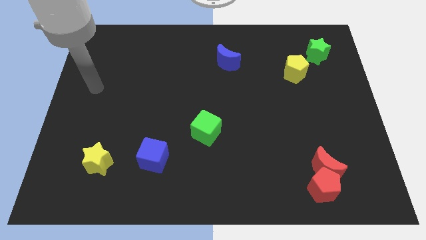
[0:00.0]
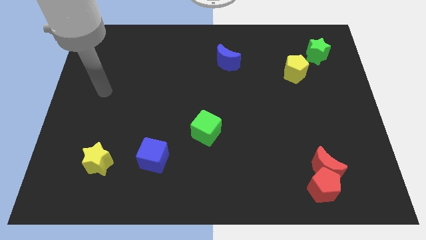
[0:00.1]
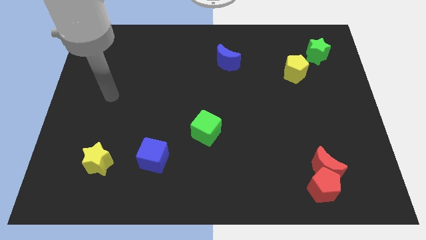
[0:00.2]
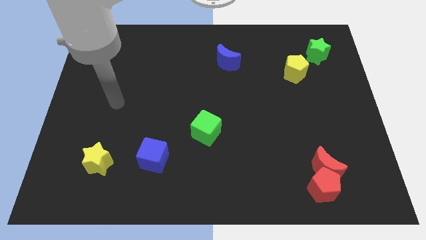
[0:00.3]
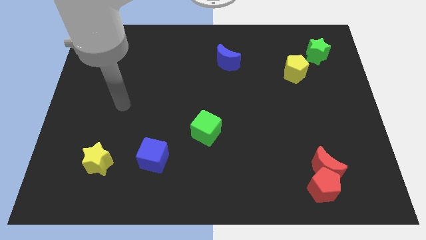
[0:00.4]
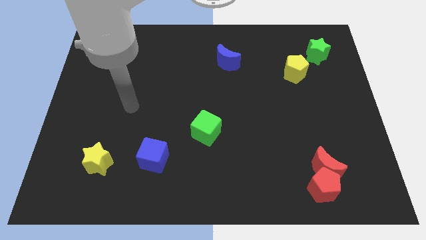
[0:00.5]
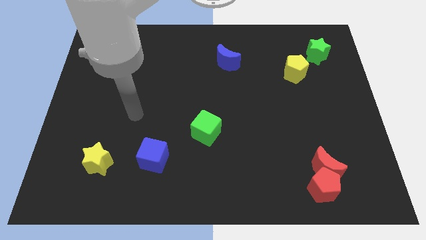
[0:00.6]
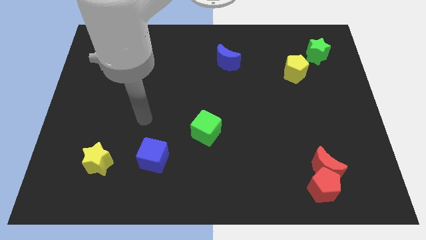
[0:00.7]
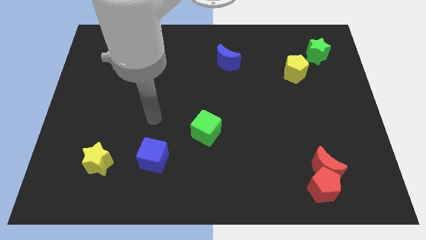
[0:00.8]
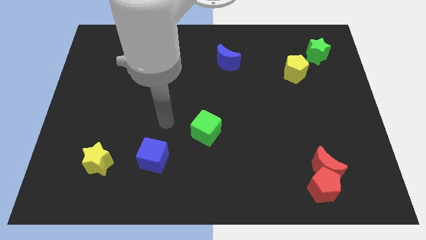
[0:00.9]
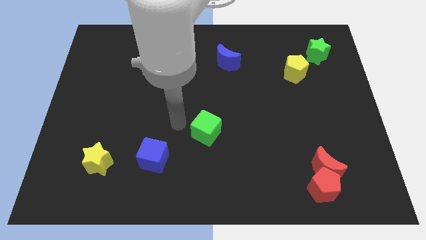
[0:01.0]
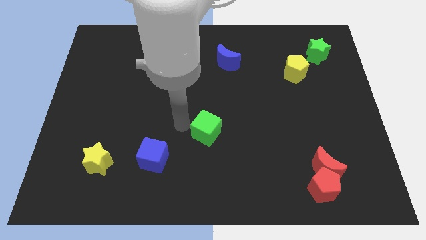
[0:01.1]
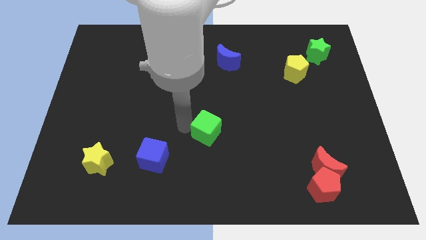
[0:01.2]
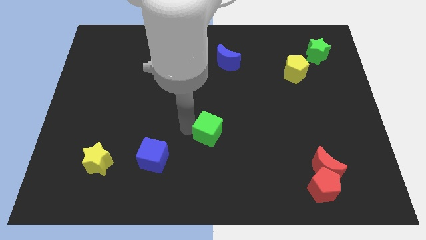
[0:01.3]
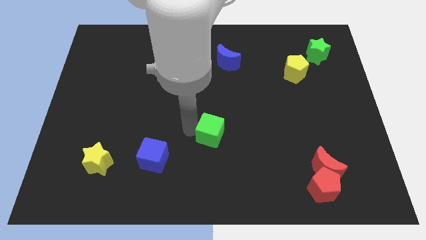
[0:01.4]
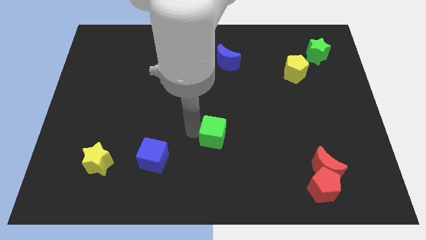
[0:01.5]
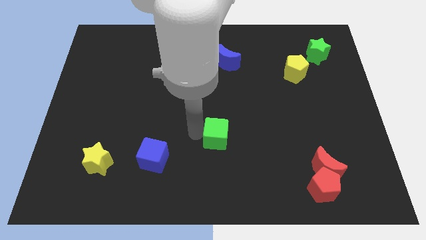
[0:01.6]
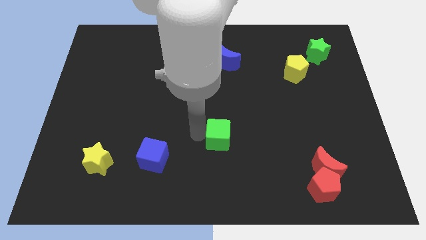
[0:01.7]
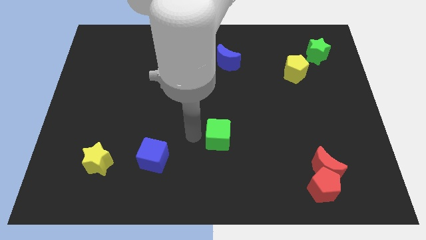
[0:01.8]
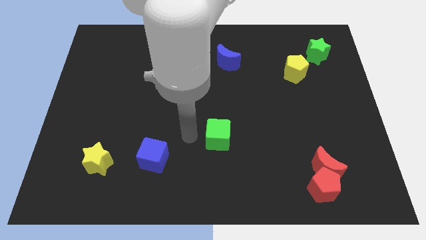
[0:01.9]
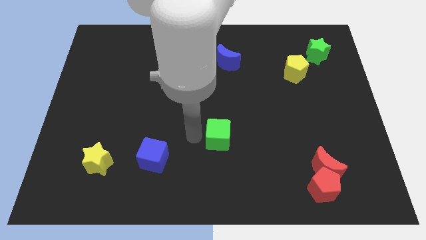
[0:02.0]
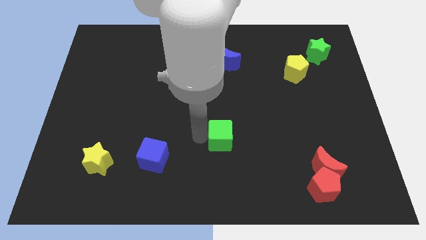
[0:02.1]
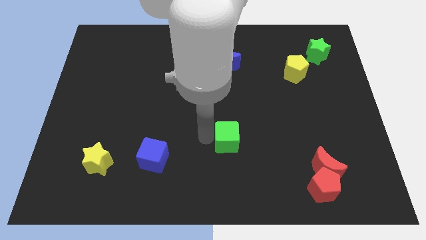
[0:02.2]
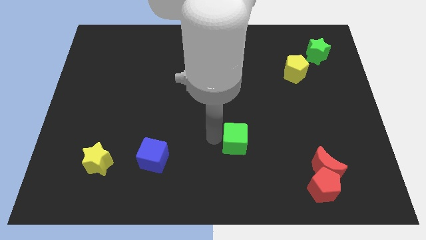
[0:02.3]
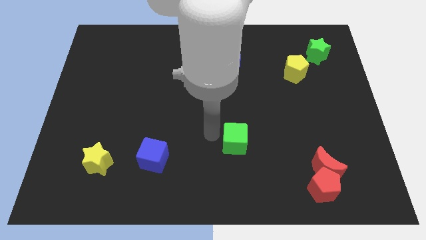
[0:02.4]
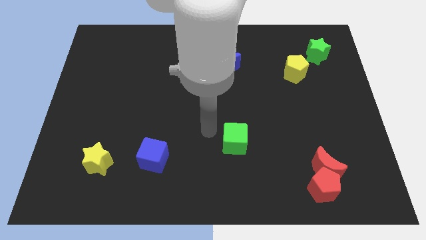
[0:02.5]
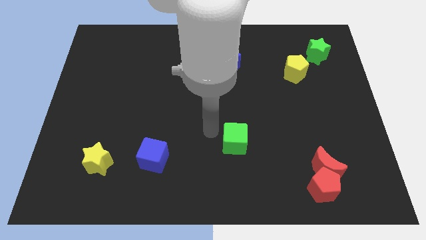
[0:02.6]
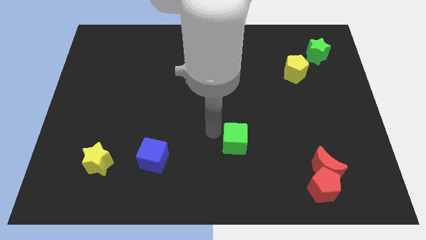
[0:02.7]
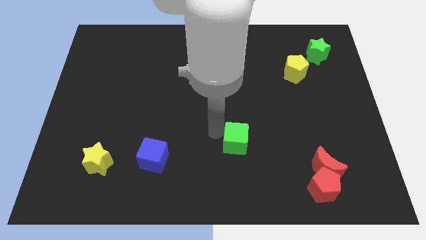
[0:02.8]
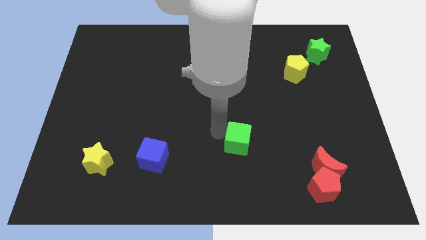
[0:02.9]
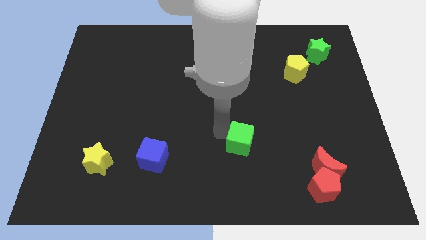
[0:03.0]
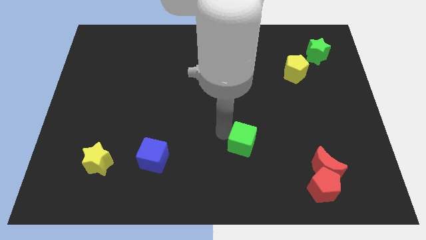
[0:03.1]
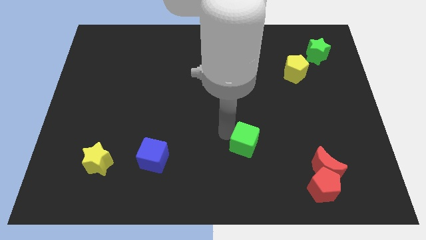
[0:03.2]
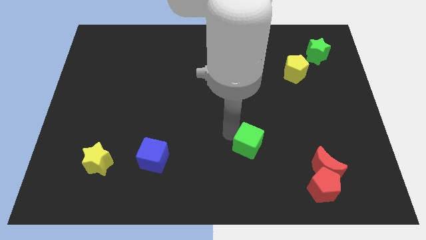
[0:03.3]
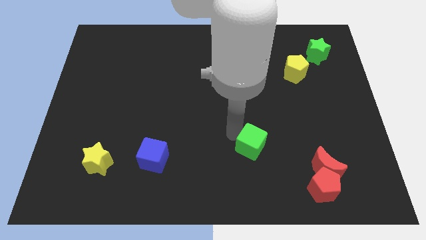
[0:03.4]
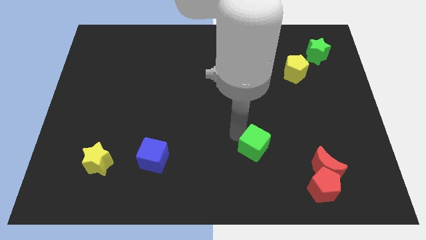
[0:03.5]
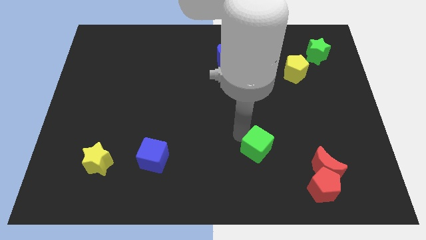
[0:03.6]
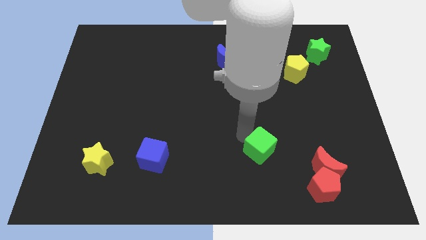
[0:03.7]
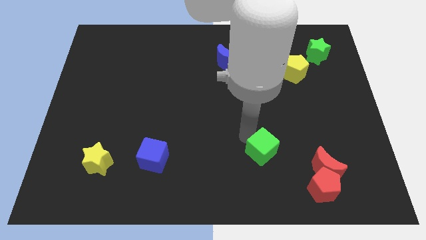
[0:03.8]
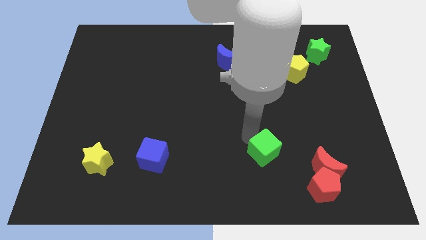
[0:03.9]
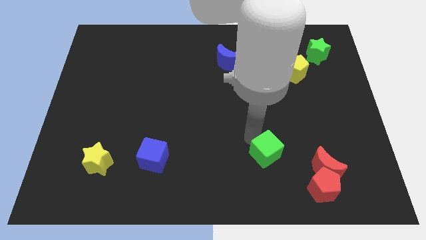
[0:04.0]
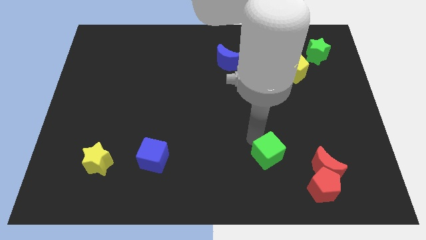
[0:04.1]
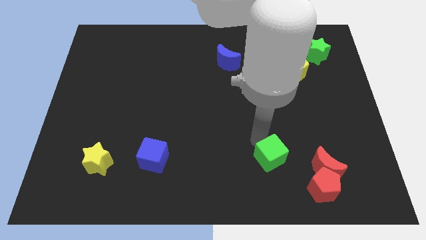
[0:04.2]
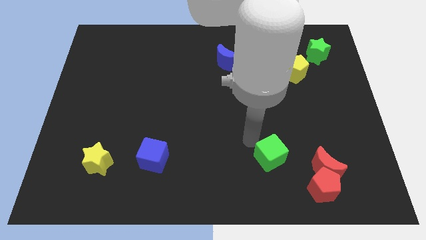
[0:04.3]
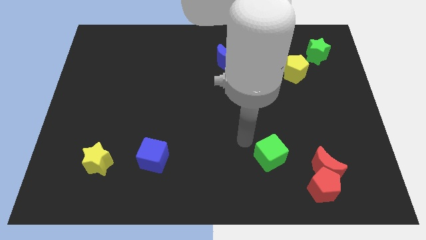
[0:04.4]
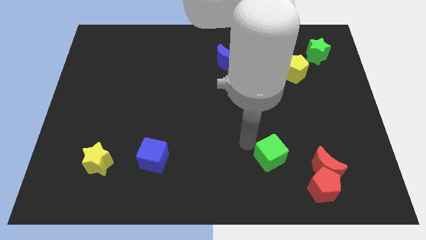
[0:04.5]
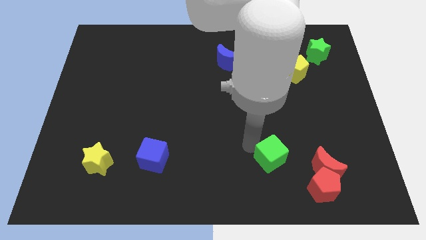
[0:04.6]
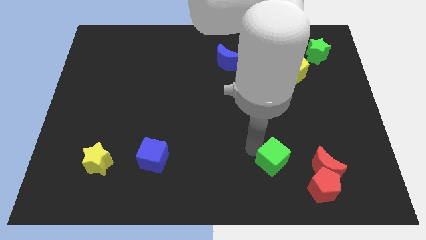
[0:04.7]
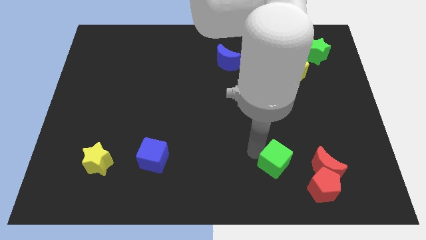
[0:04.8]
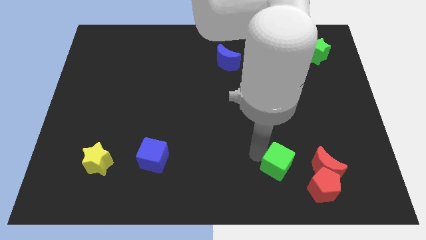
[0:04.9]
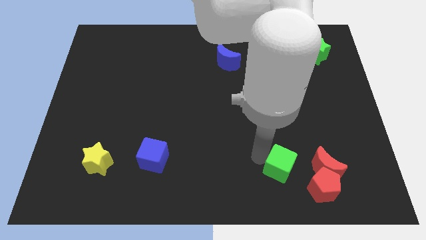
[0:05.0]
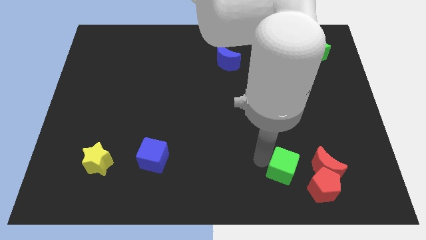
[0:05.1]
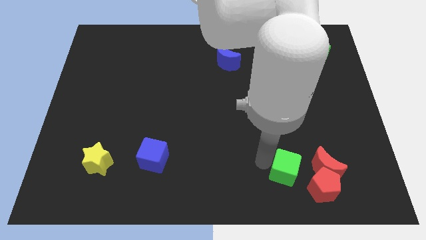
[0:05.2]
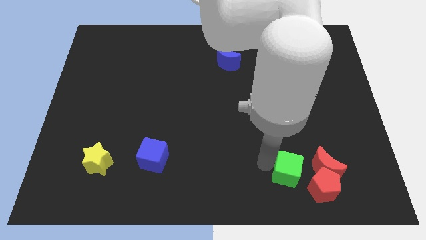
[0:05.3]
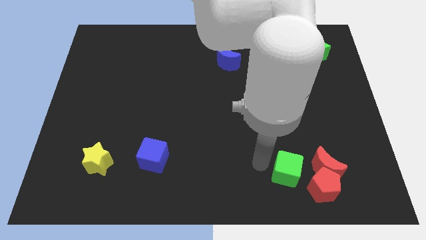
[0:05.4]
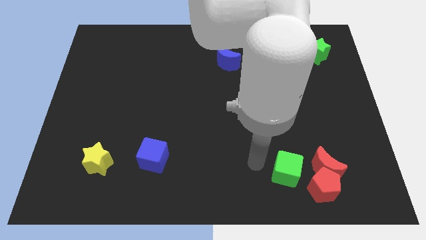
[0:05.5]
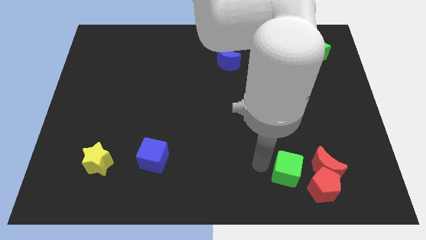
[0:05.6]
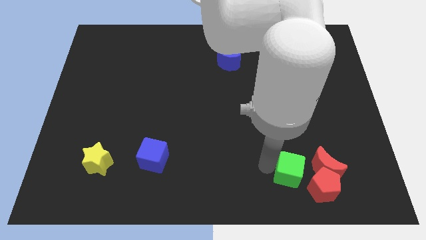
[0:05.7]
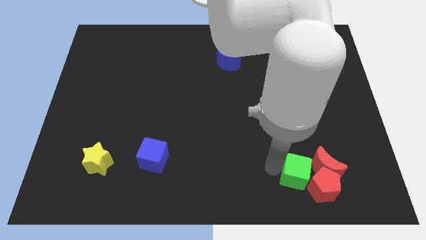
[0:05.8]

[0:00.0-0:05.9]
slide the green cube towards the red pentagon
